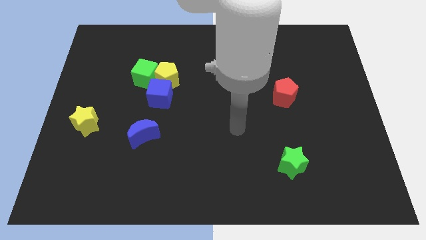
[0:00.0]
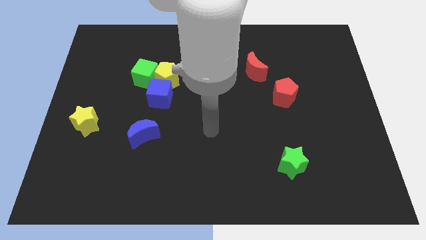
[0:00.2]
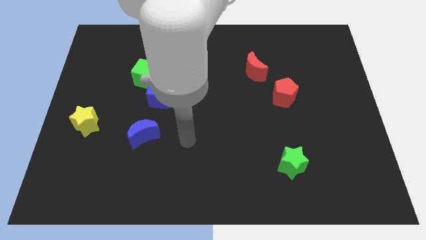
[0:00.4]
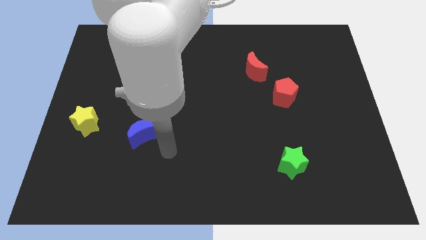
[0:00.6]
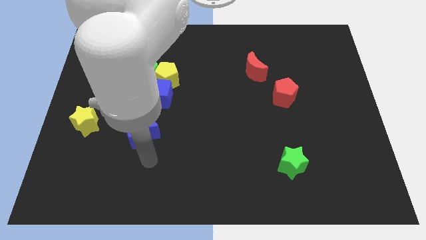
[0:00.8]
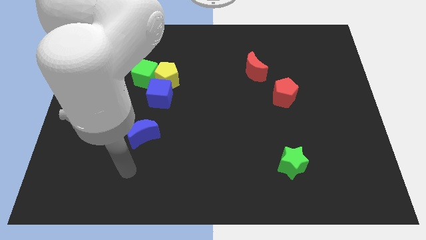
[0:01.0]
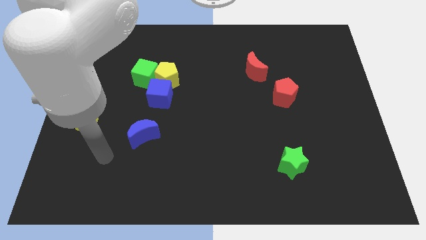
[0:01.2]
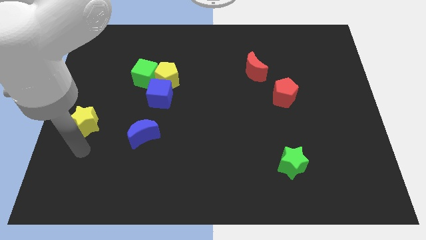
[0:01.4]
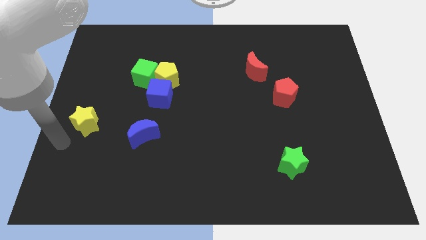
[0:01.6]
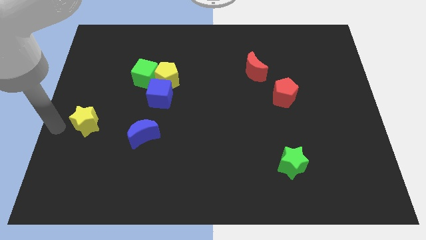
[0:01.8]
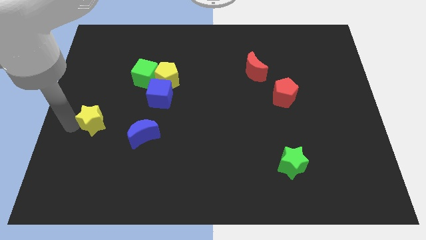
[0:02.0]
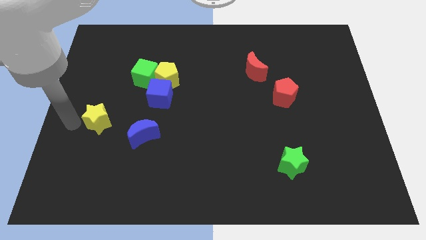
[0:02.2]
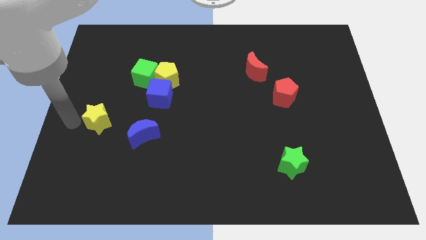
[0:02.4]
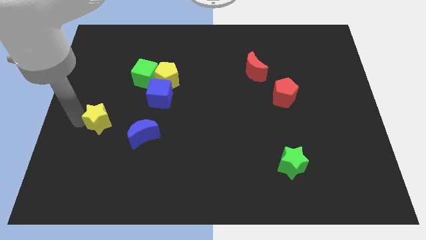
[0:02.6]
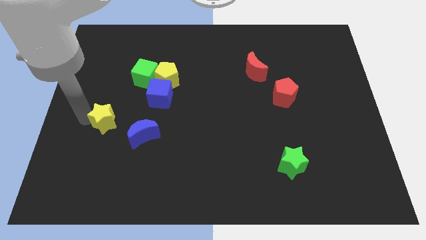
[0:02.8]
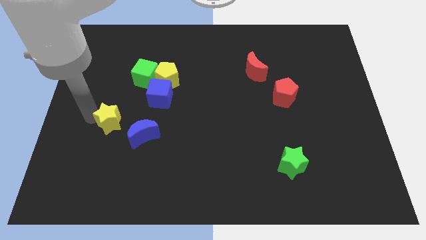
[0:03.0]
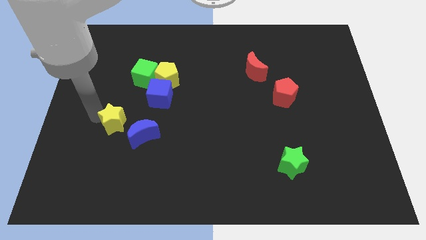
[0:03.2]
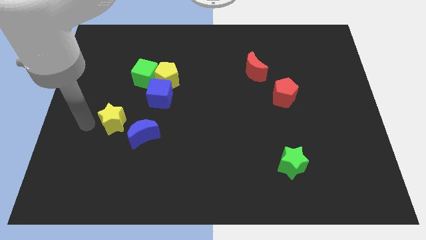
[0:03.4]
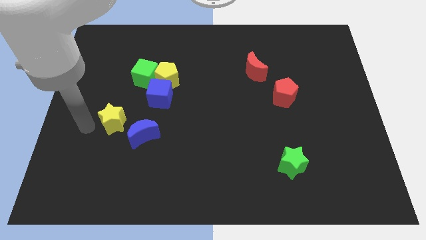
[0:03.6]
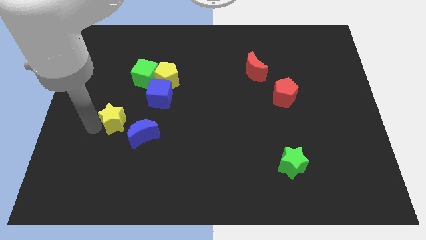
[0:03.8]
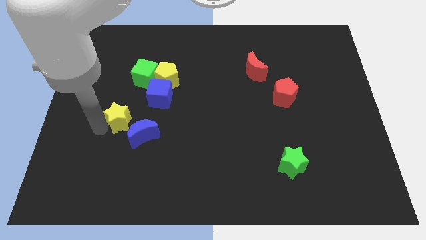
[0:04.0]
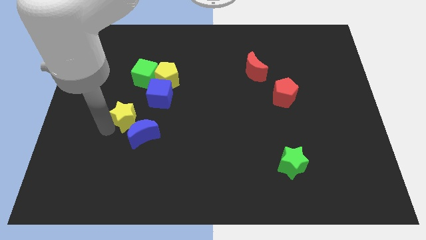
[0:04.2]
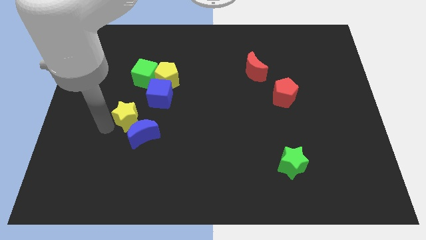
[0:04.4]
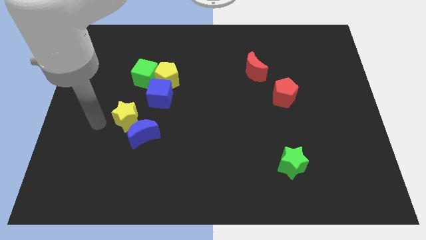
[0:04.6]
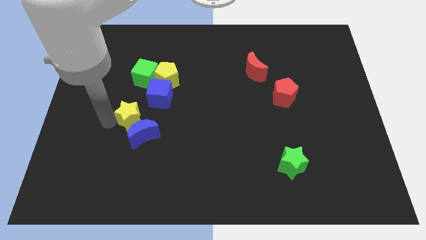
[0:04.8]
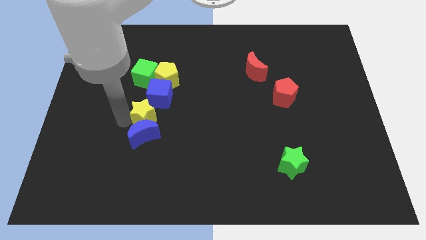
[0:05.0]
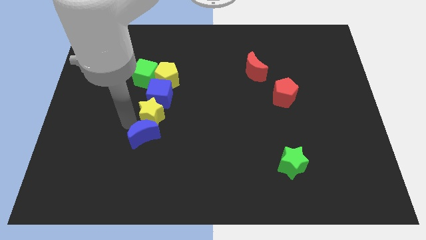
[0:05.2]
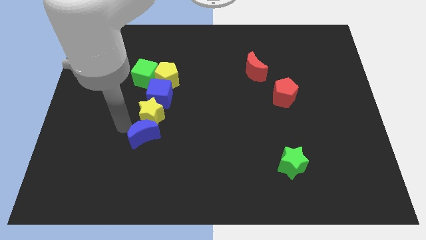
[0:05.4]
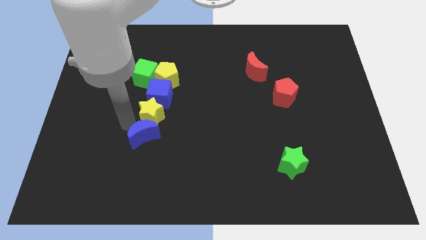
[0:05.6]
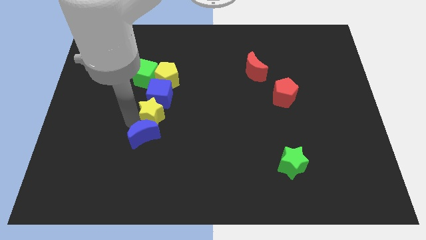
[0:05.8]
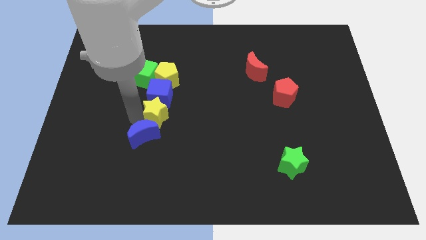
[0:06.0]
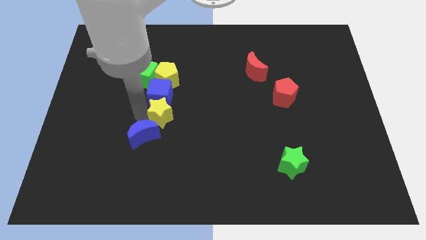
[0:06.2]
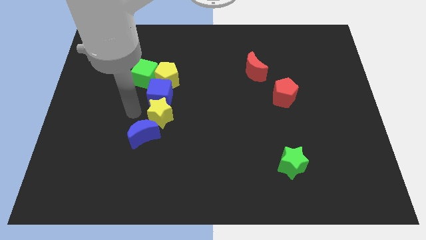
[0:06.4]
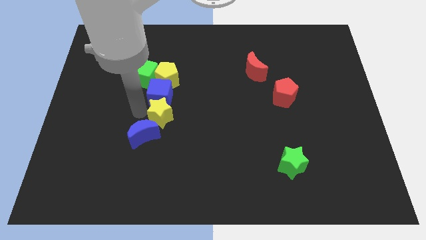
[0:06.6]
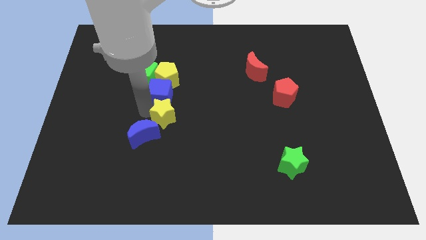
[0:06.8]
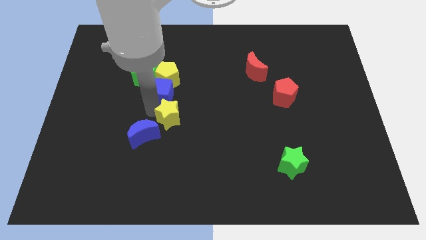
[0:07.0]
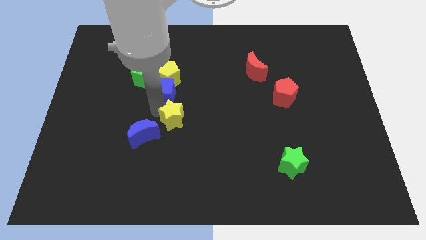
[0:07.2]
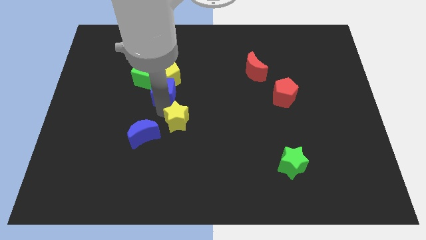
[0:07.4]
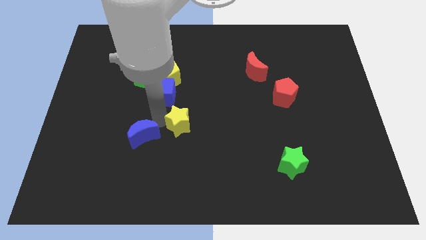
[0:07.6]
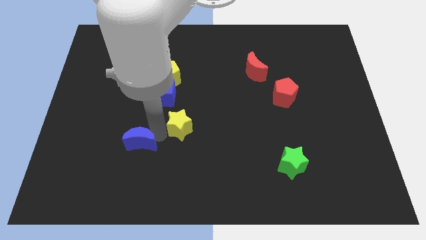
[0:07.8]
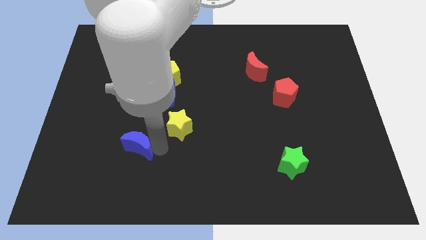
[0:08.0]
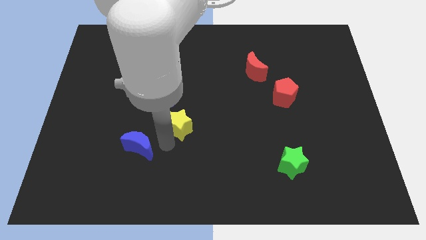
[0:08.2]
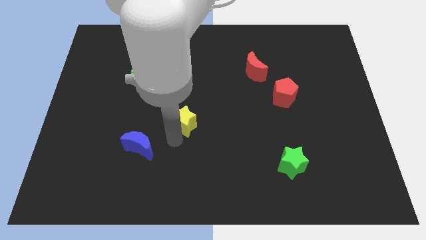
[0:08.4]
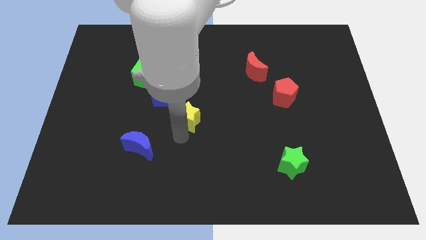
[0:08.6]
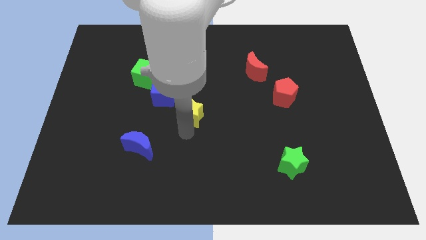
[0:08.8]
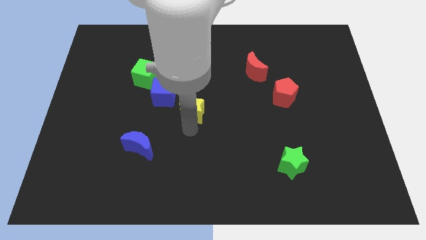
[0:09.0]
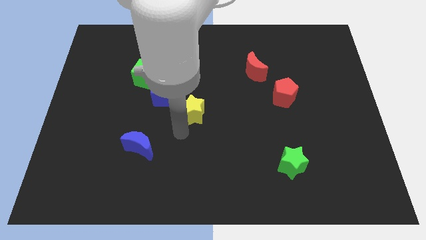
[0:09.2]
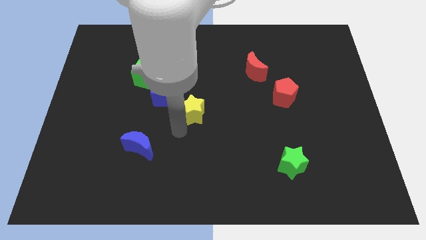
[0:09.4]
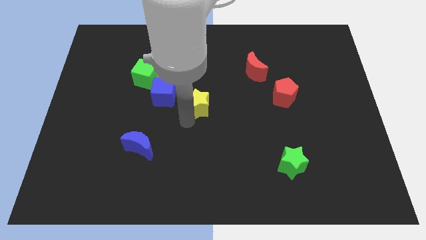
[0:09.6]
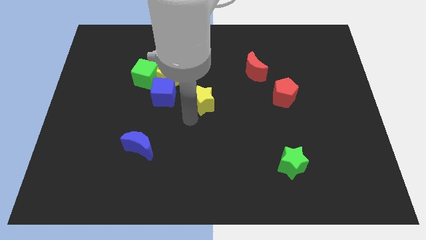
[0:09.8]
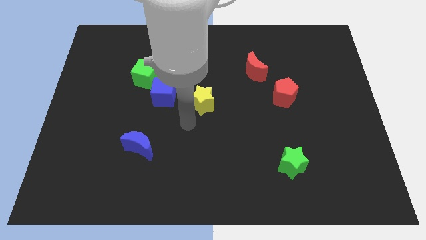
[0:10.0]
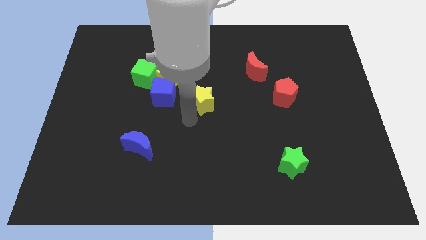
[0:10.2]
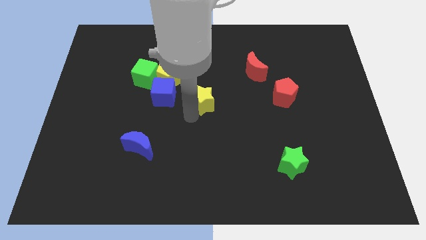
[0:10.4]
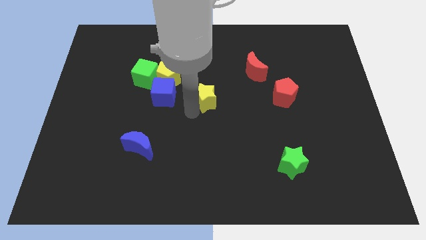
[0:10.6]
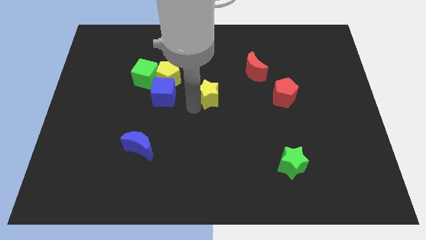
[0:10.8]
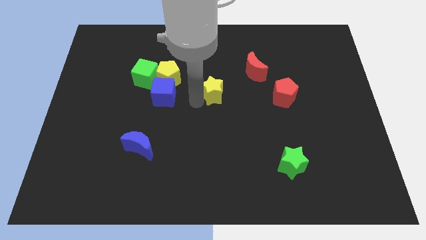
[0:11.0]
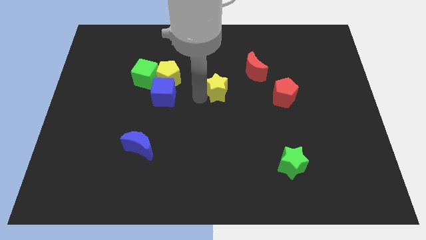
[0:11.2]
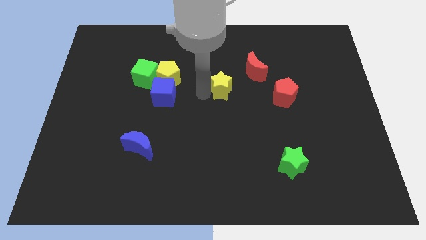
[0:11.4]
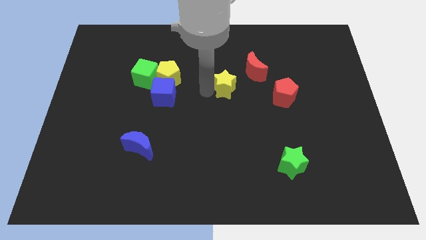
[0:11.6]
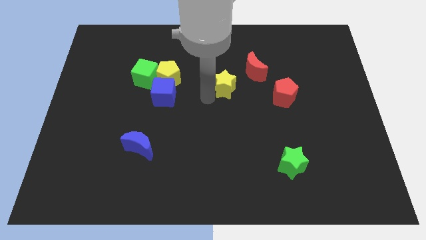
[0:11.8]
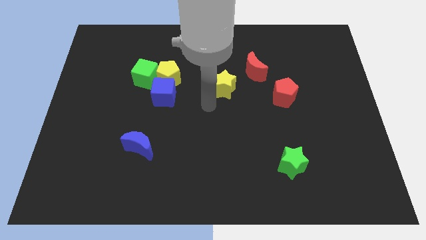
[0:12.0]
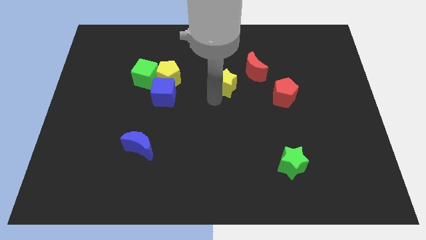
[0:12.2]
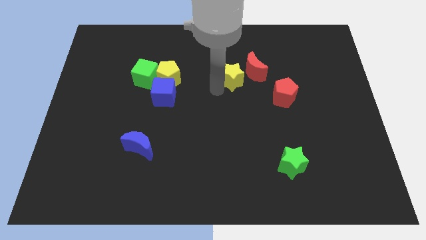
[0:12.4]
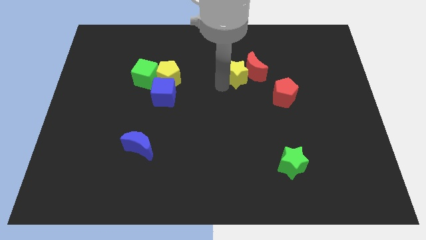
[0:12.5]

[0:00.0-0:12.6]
push the yellow star to the red moon

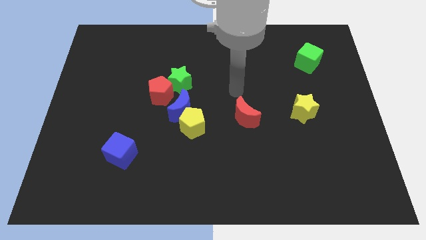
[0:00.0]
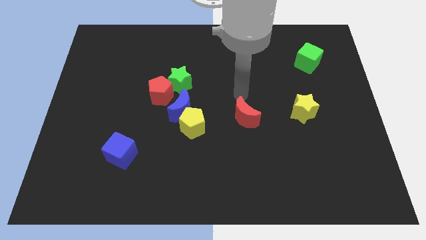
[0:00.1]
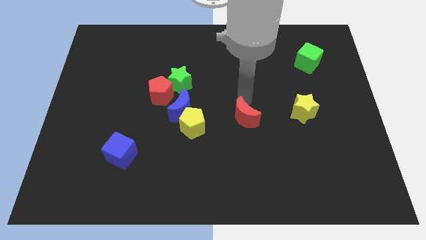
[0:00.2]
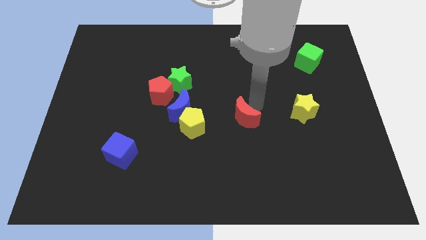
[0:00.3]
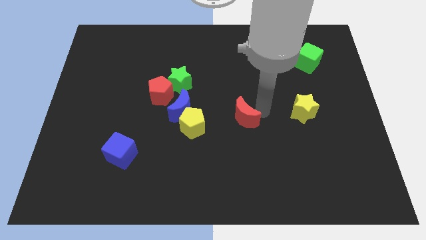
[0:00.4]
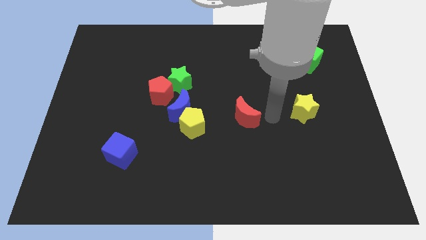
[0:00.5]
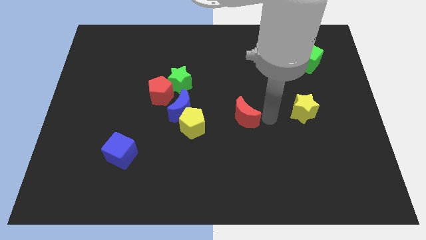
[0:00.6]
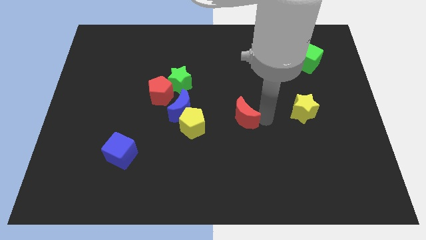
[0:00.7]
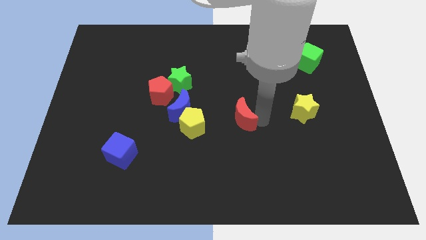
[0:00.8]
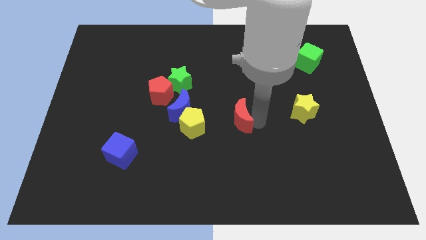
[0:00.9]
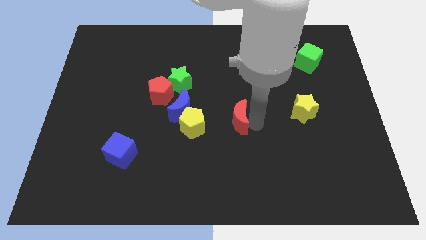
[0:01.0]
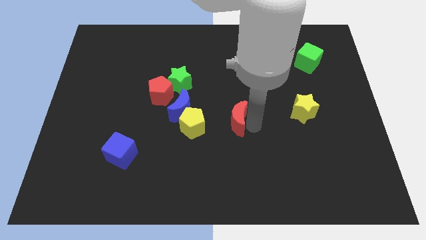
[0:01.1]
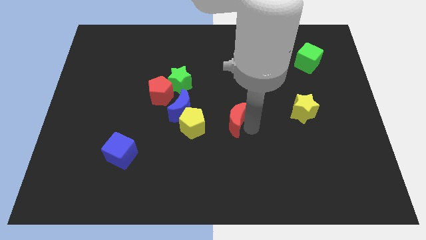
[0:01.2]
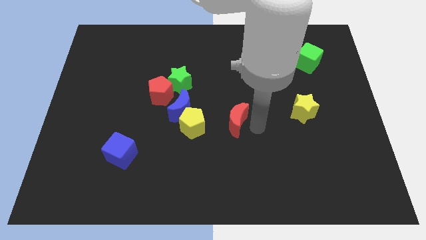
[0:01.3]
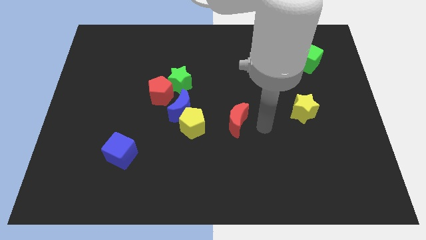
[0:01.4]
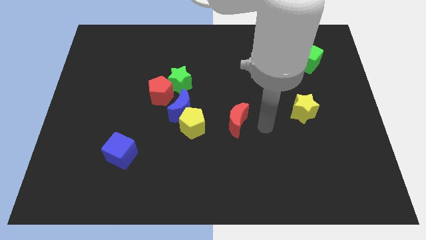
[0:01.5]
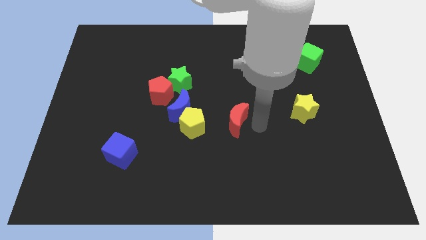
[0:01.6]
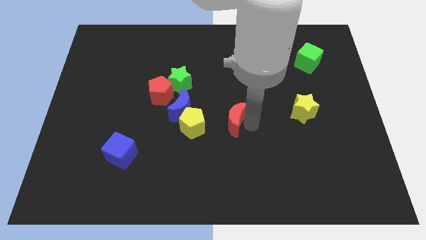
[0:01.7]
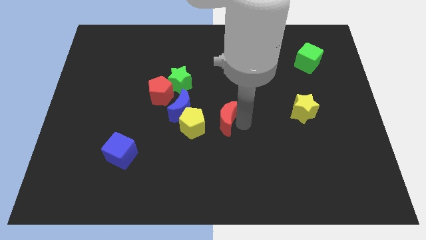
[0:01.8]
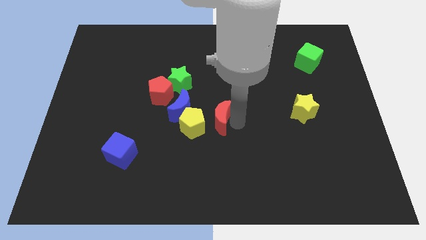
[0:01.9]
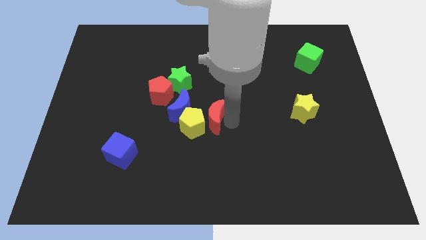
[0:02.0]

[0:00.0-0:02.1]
slide the red moon to the yellow pentagon
